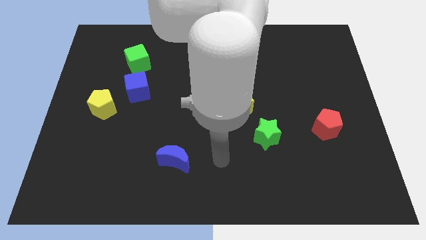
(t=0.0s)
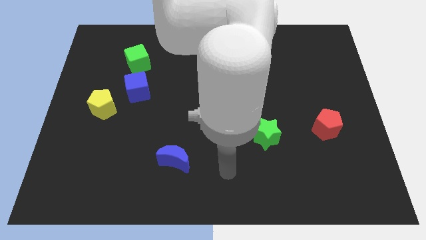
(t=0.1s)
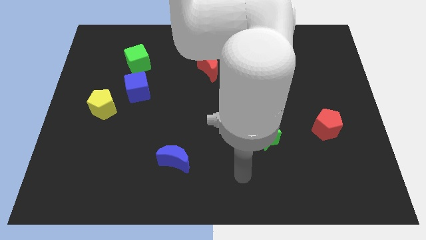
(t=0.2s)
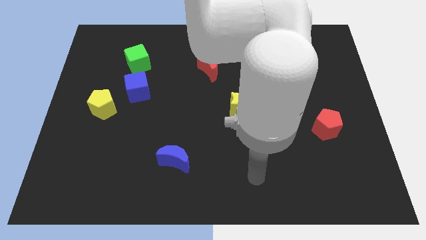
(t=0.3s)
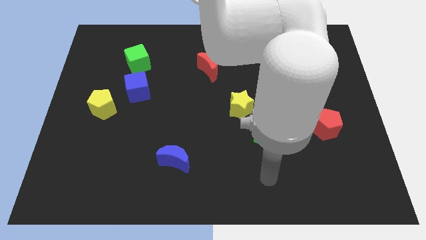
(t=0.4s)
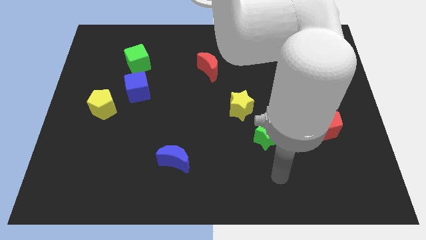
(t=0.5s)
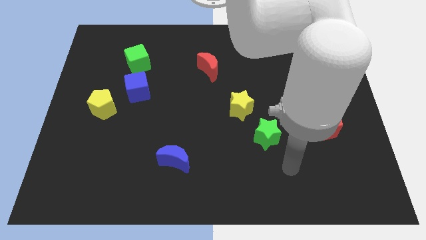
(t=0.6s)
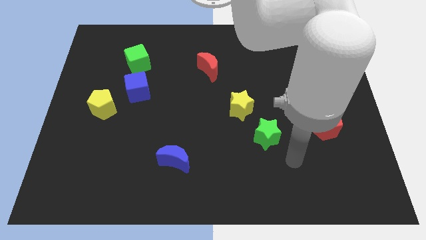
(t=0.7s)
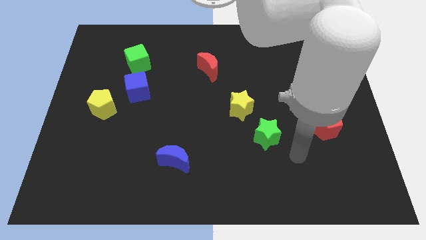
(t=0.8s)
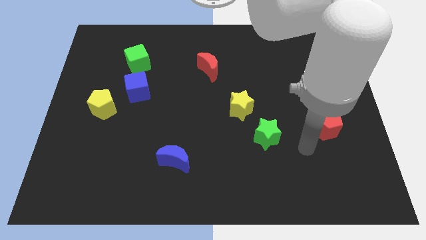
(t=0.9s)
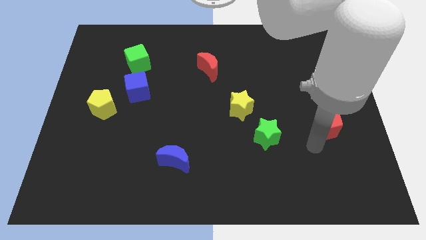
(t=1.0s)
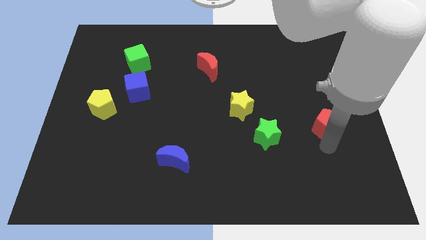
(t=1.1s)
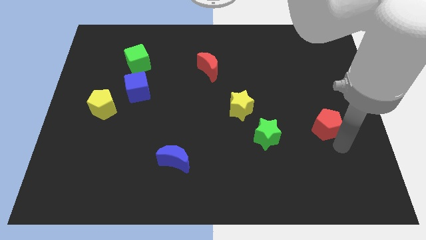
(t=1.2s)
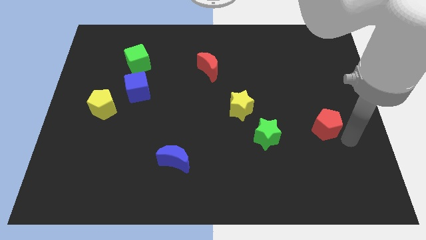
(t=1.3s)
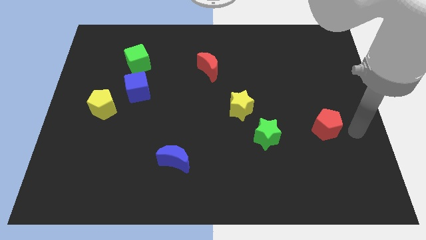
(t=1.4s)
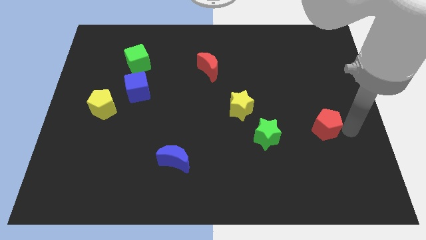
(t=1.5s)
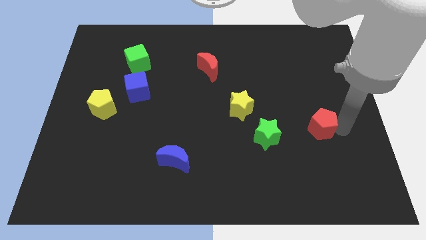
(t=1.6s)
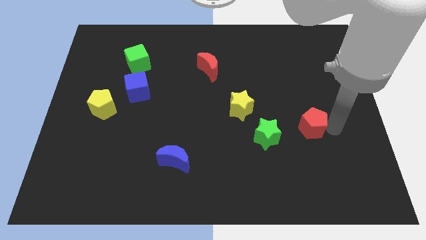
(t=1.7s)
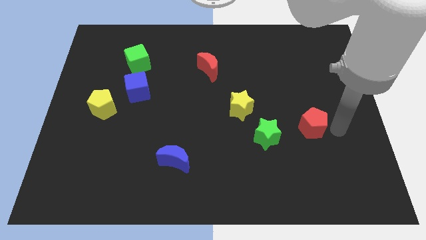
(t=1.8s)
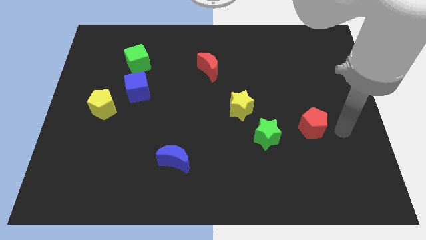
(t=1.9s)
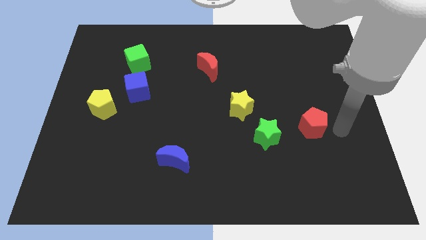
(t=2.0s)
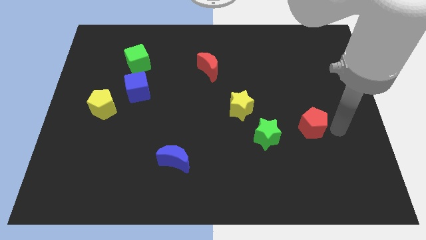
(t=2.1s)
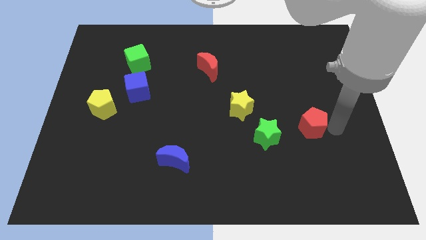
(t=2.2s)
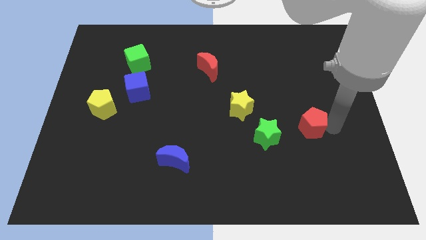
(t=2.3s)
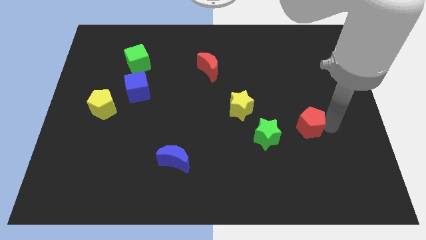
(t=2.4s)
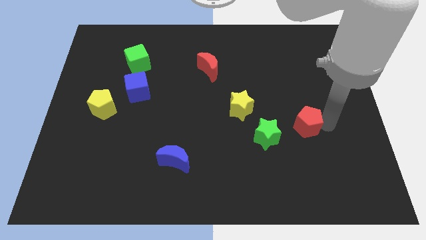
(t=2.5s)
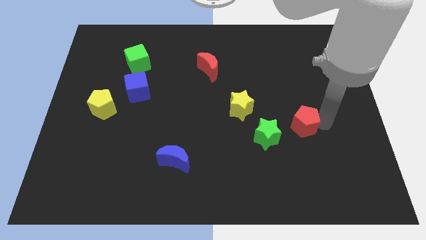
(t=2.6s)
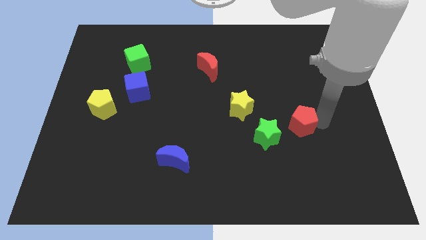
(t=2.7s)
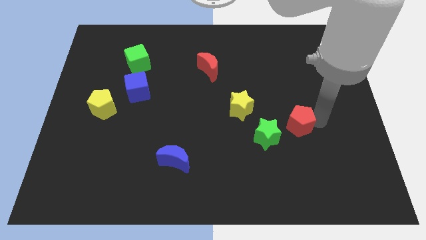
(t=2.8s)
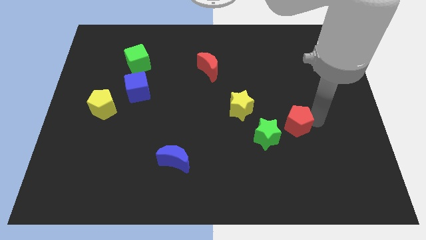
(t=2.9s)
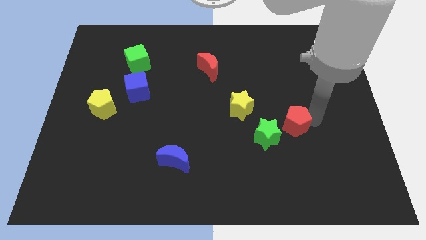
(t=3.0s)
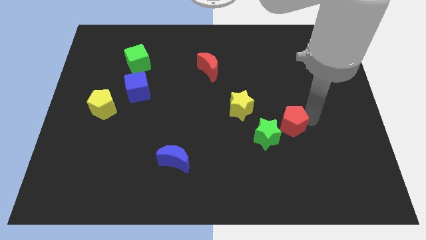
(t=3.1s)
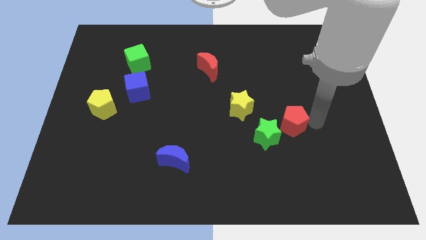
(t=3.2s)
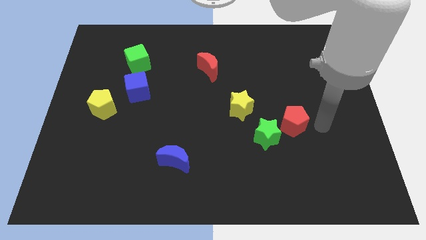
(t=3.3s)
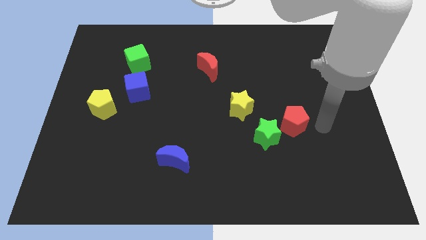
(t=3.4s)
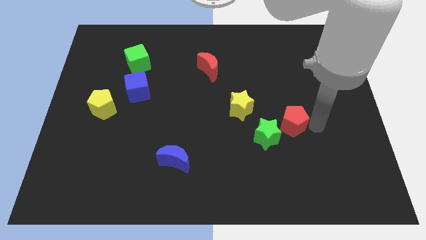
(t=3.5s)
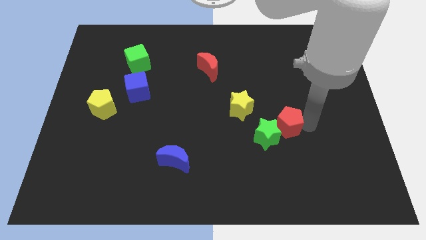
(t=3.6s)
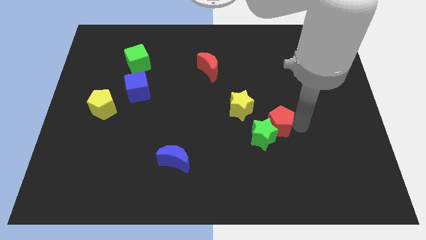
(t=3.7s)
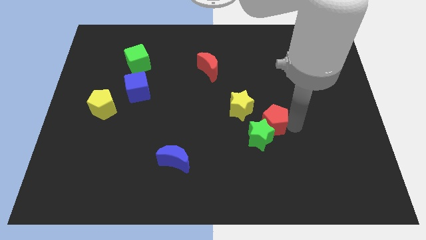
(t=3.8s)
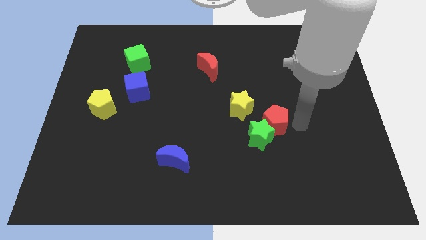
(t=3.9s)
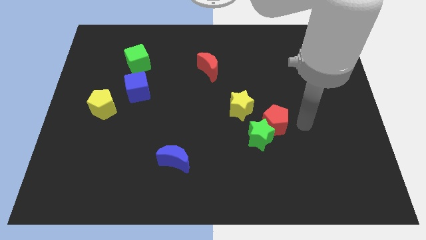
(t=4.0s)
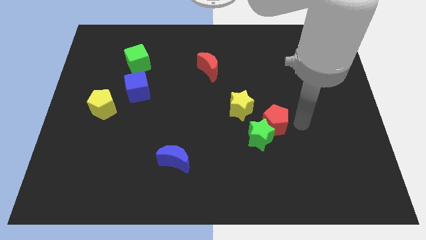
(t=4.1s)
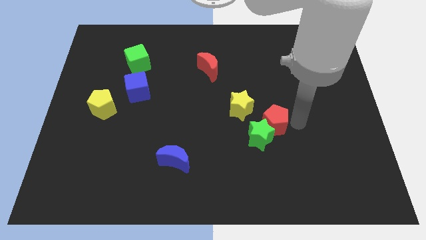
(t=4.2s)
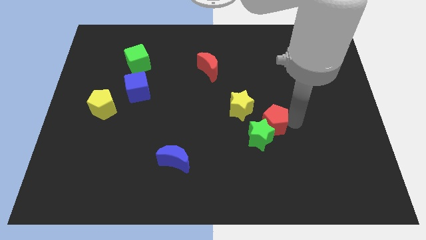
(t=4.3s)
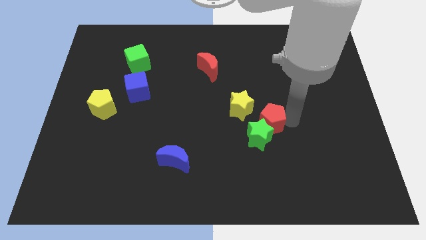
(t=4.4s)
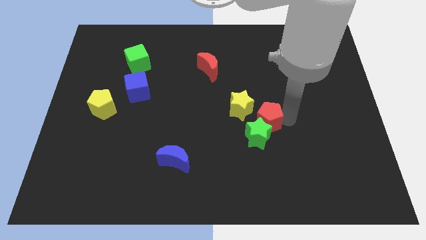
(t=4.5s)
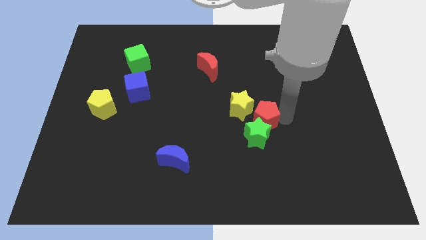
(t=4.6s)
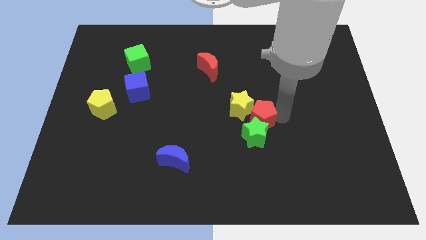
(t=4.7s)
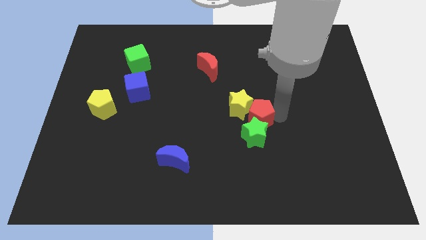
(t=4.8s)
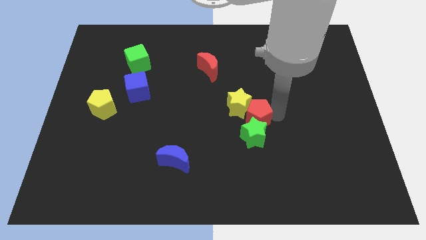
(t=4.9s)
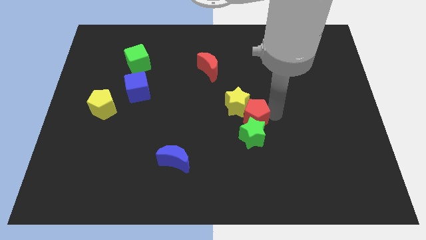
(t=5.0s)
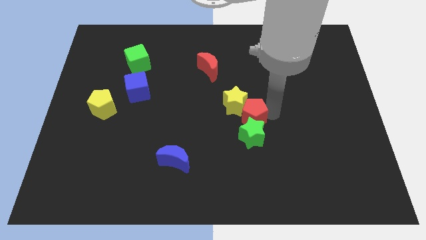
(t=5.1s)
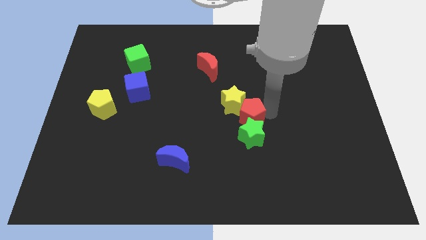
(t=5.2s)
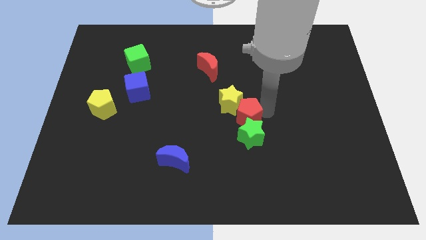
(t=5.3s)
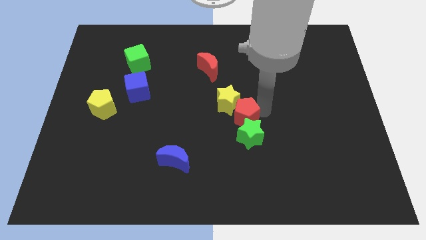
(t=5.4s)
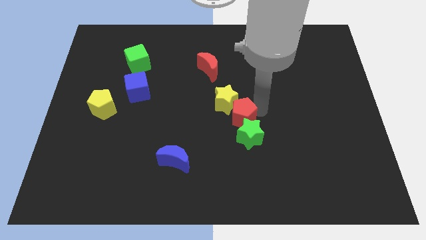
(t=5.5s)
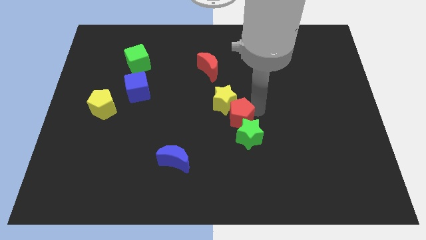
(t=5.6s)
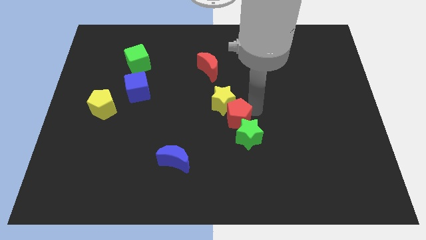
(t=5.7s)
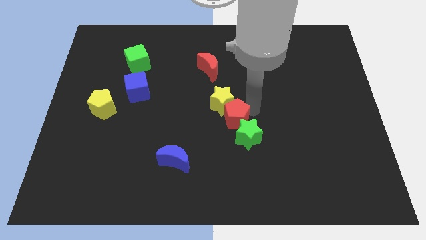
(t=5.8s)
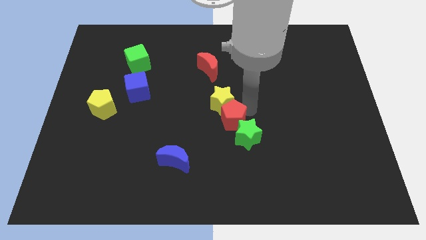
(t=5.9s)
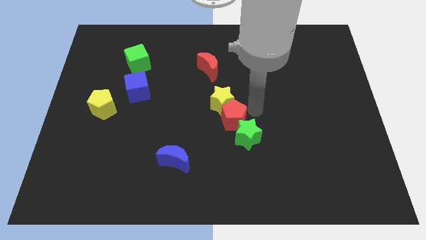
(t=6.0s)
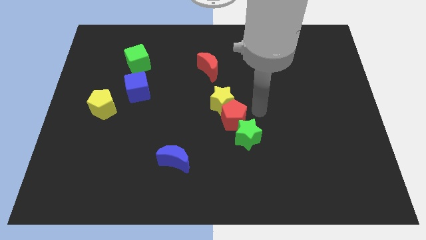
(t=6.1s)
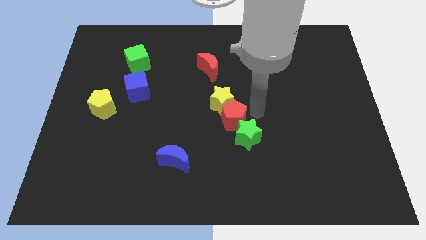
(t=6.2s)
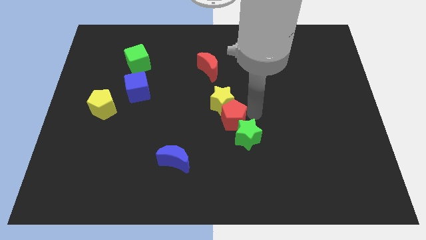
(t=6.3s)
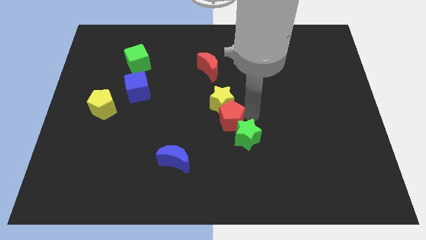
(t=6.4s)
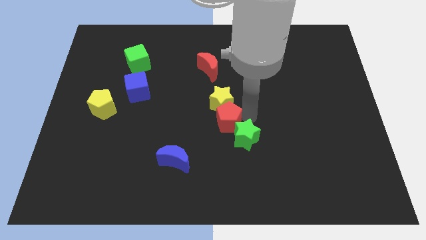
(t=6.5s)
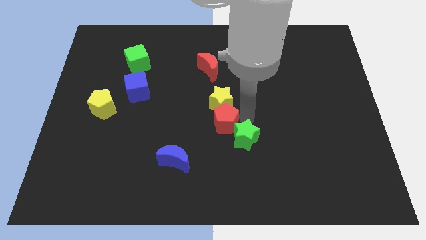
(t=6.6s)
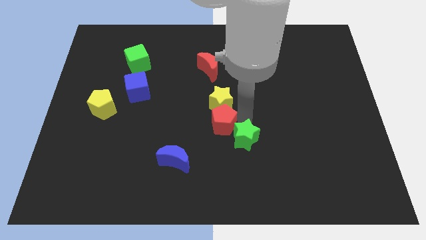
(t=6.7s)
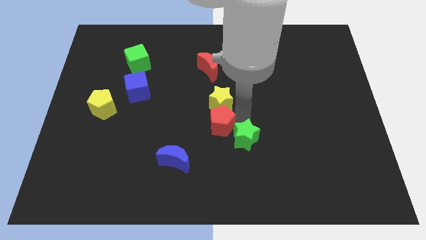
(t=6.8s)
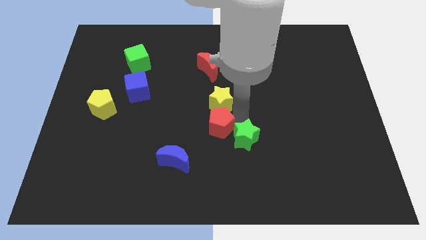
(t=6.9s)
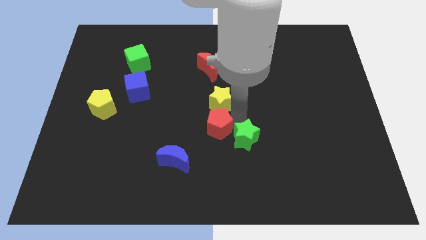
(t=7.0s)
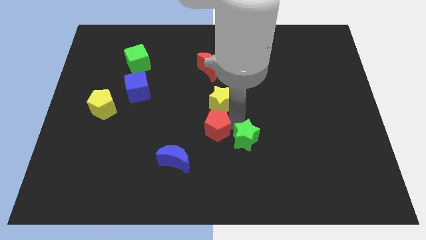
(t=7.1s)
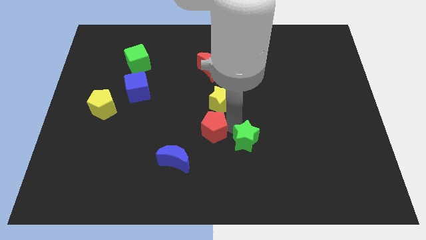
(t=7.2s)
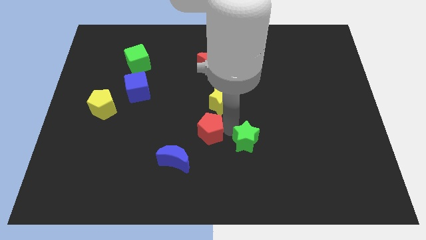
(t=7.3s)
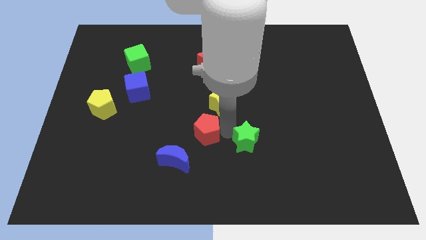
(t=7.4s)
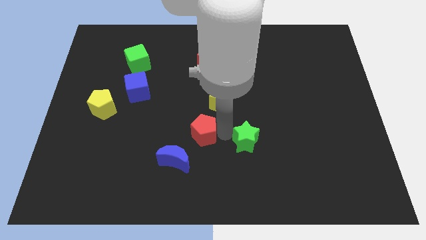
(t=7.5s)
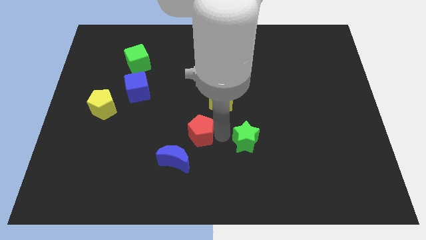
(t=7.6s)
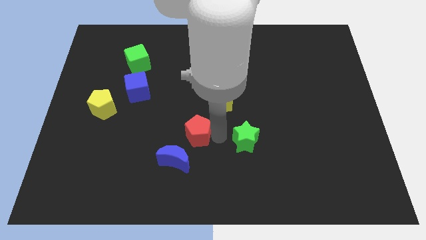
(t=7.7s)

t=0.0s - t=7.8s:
slide the red pentagon to the top of the blue moon
